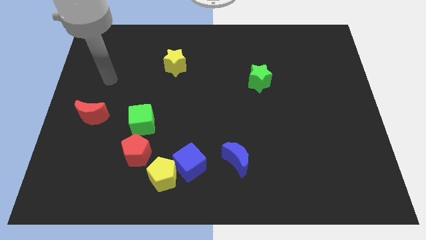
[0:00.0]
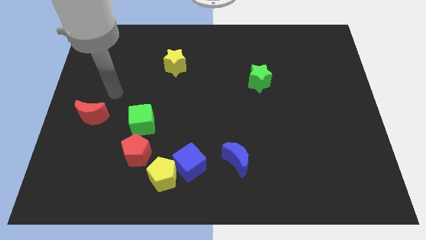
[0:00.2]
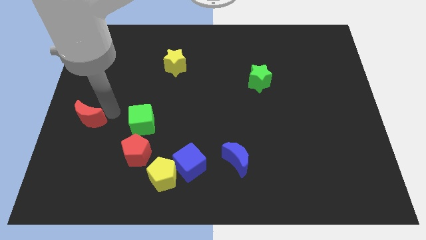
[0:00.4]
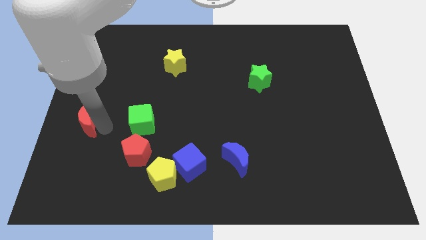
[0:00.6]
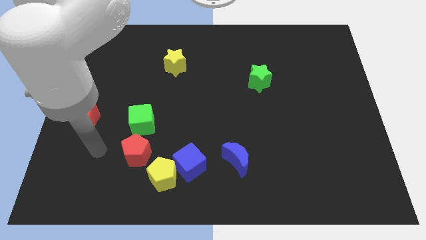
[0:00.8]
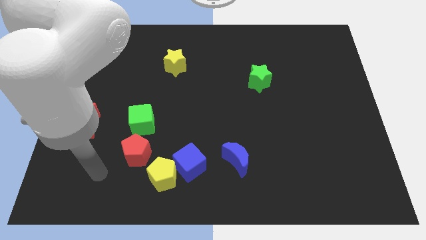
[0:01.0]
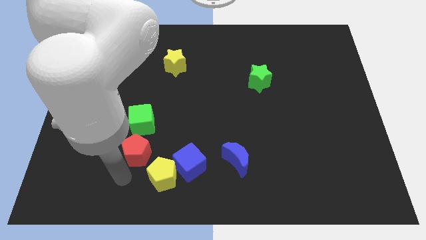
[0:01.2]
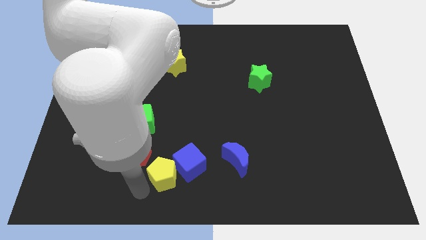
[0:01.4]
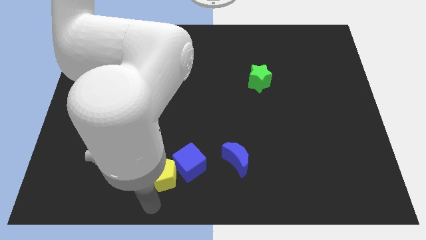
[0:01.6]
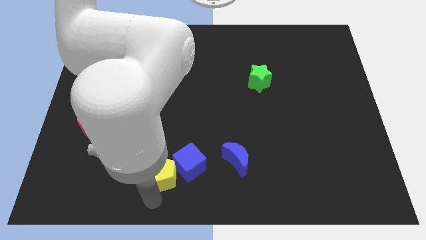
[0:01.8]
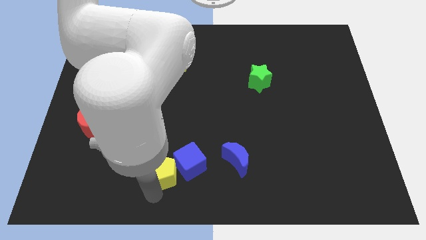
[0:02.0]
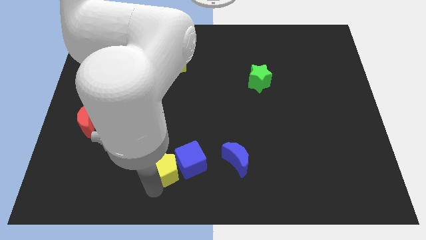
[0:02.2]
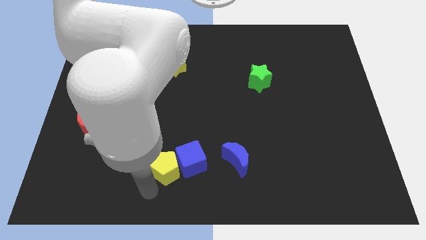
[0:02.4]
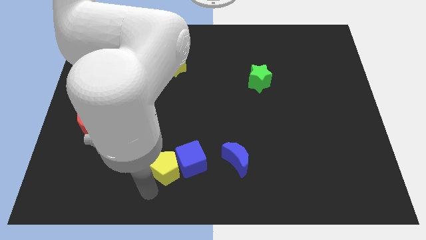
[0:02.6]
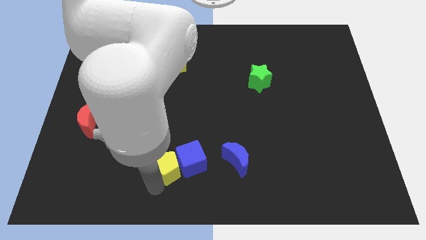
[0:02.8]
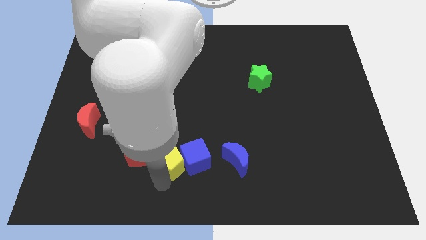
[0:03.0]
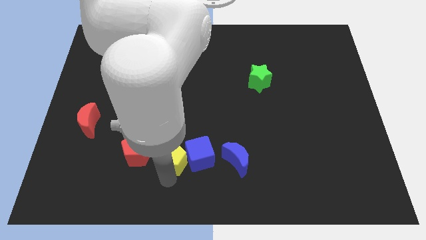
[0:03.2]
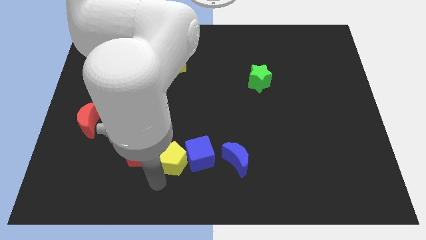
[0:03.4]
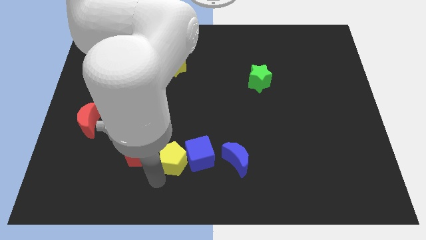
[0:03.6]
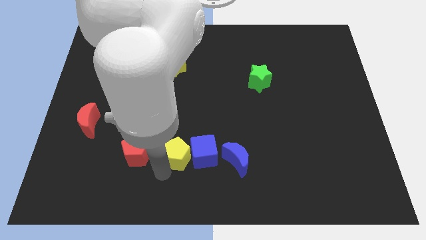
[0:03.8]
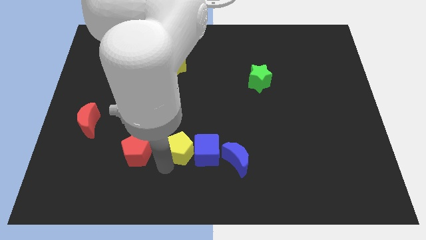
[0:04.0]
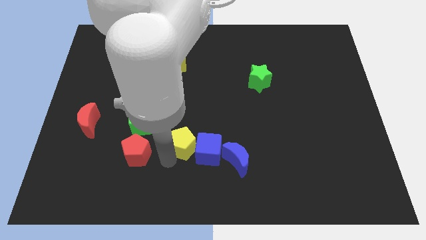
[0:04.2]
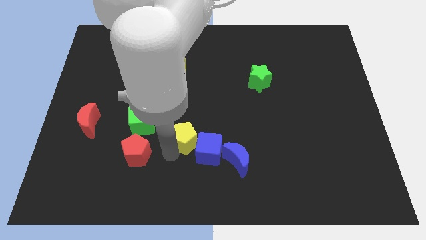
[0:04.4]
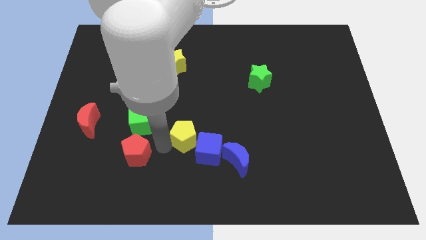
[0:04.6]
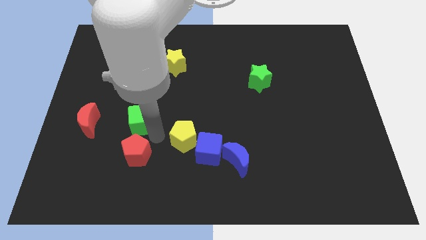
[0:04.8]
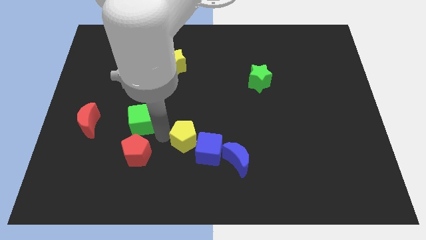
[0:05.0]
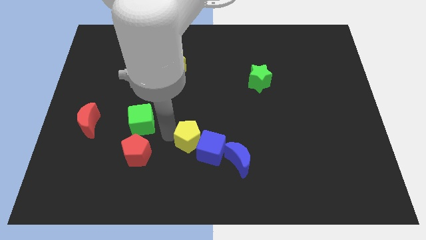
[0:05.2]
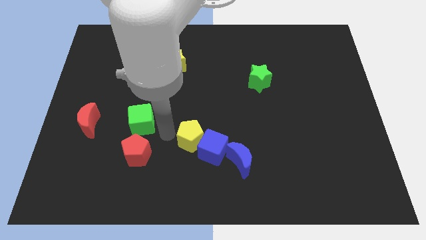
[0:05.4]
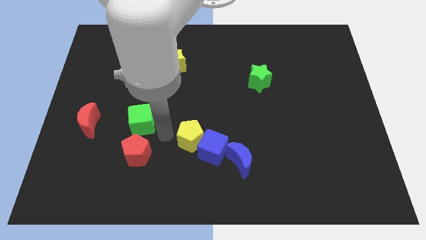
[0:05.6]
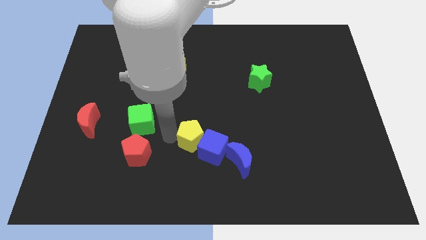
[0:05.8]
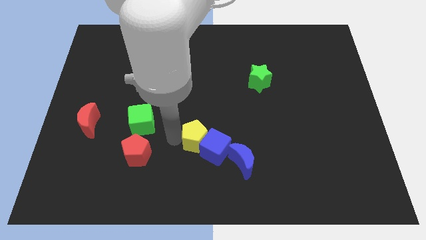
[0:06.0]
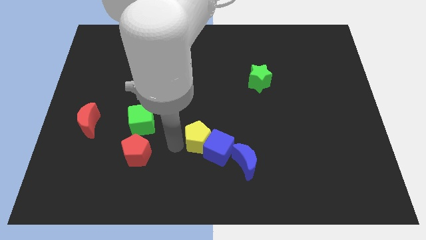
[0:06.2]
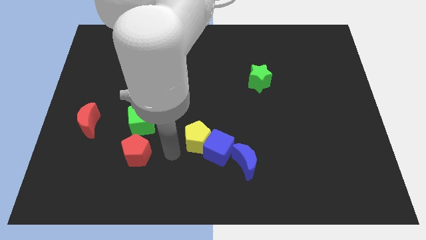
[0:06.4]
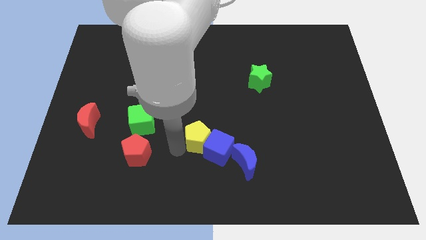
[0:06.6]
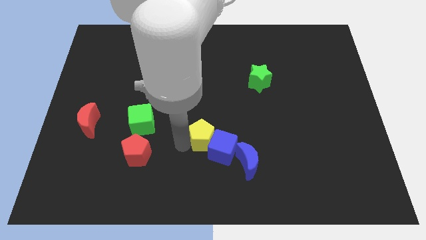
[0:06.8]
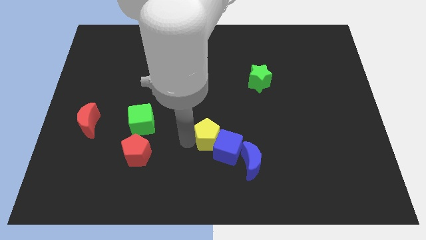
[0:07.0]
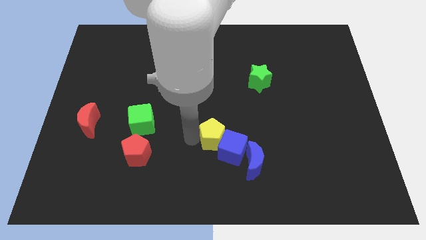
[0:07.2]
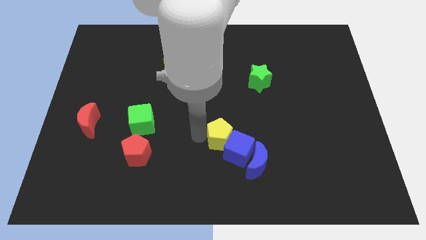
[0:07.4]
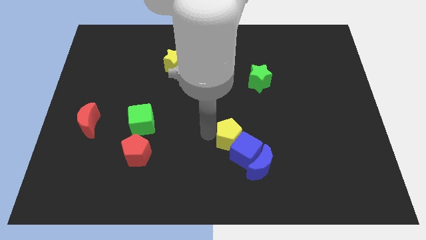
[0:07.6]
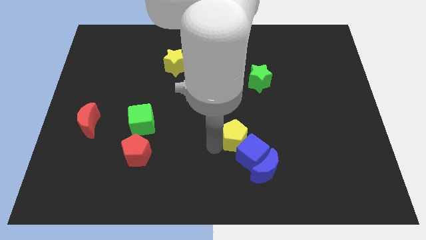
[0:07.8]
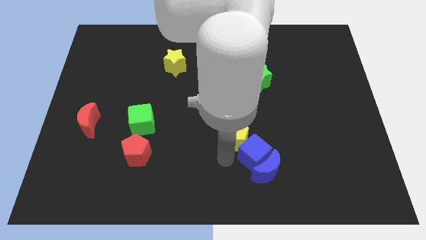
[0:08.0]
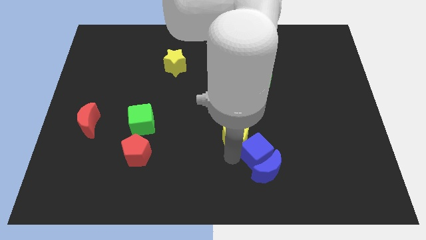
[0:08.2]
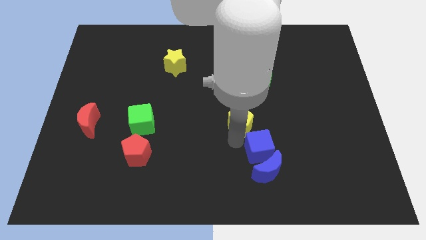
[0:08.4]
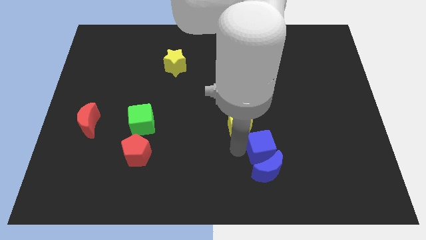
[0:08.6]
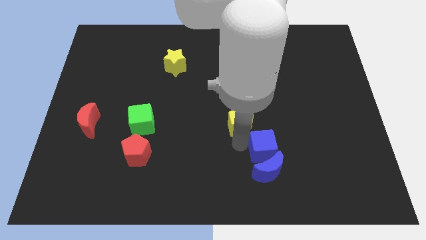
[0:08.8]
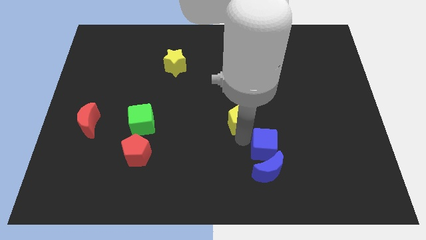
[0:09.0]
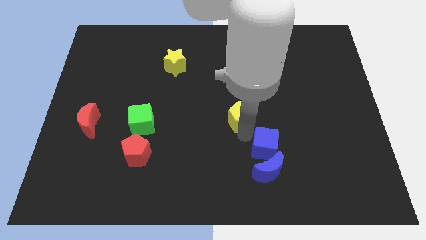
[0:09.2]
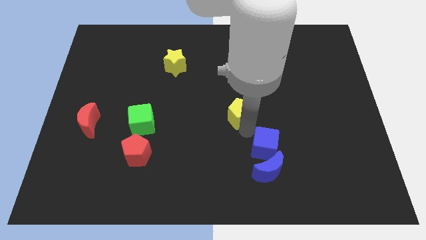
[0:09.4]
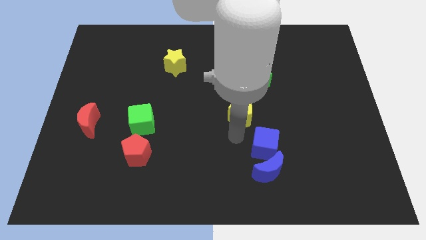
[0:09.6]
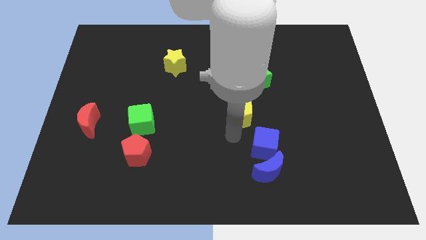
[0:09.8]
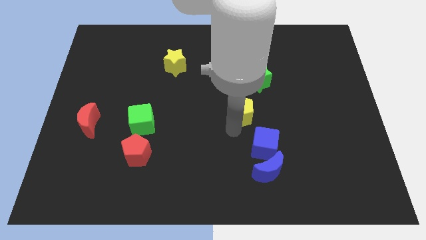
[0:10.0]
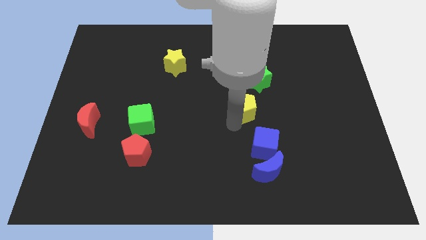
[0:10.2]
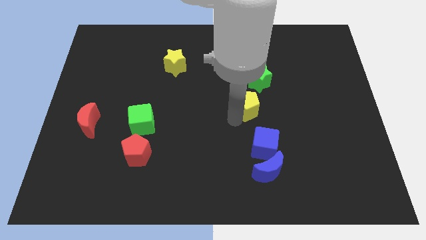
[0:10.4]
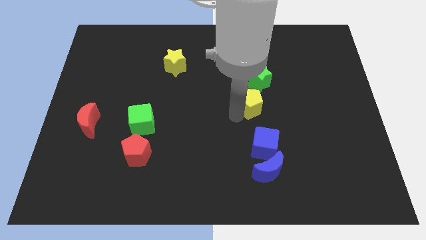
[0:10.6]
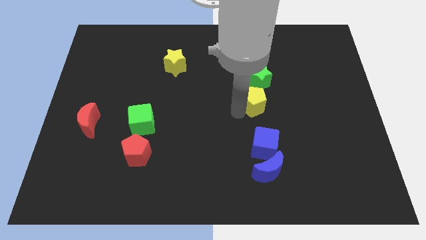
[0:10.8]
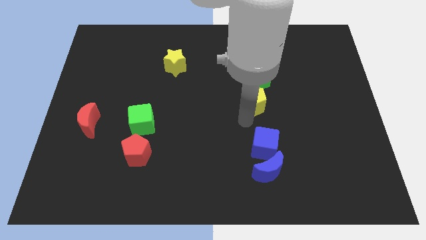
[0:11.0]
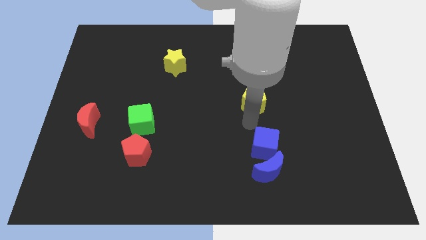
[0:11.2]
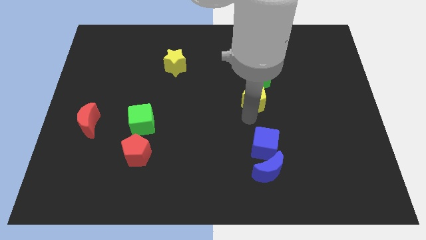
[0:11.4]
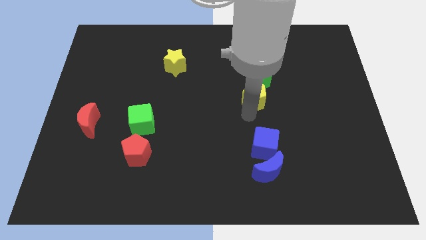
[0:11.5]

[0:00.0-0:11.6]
slide the yellow pentagon close to the green star

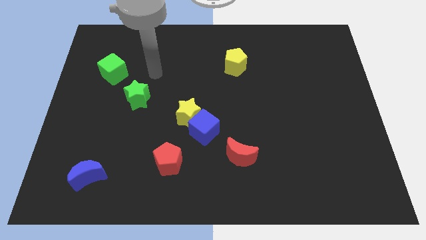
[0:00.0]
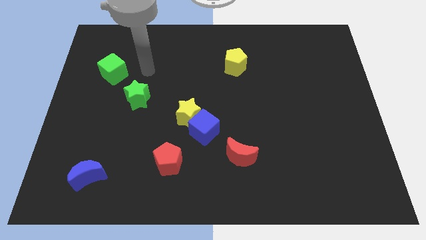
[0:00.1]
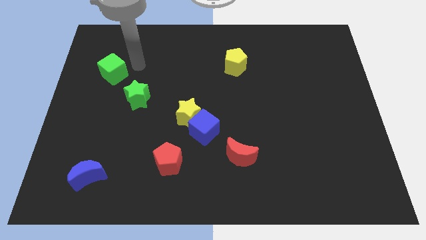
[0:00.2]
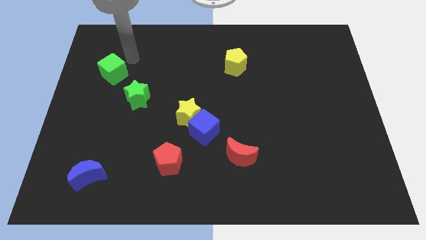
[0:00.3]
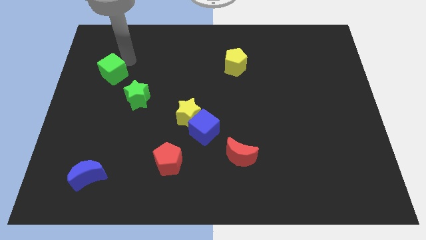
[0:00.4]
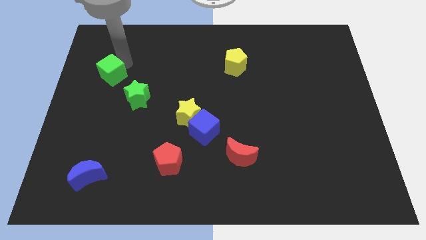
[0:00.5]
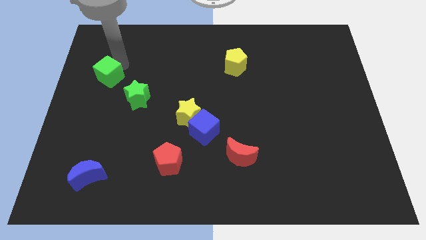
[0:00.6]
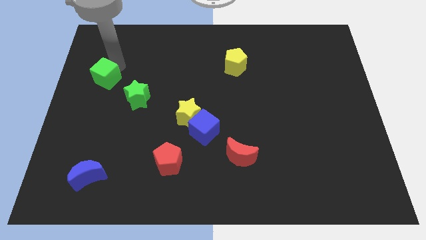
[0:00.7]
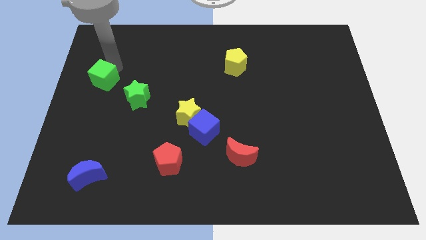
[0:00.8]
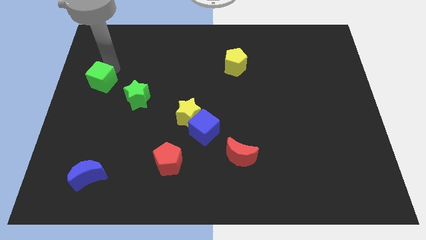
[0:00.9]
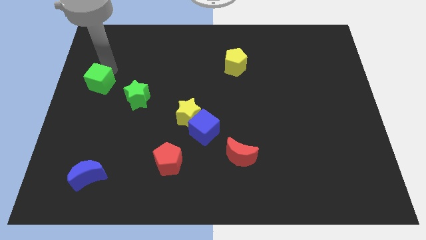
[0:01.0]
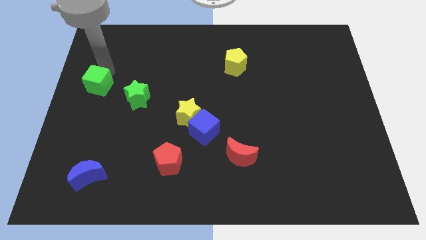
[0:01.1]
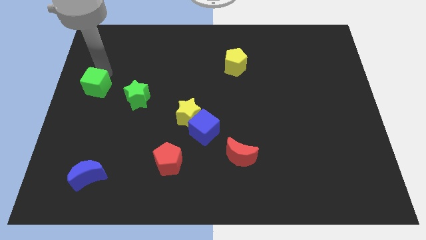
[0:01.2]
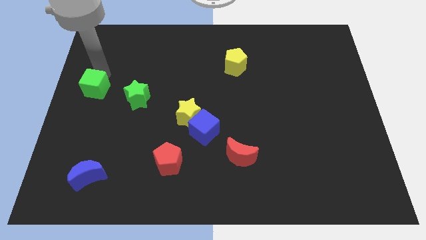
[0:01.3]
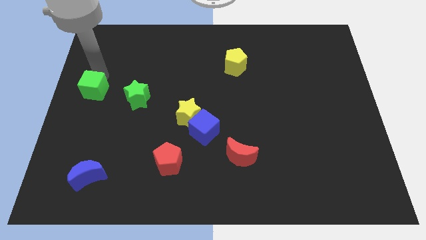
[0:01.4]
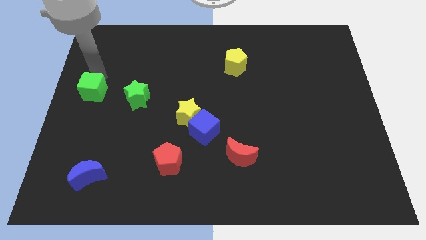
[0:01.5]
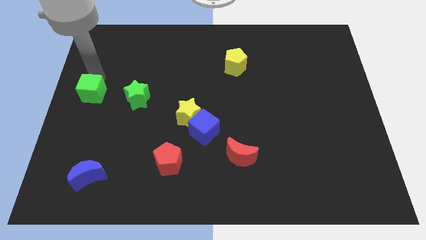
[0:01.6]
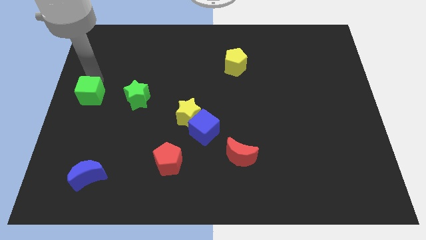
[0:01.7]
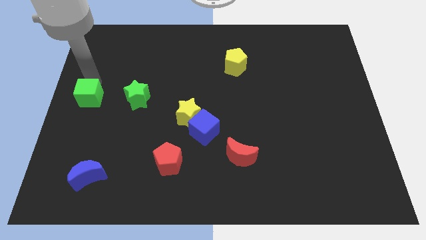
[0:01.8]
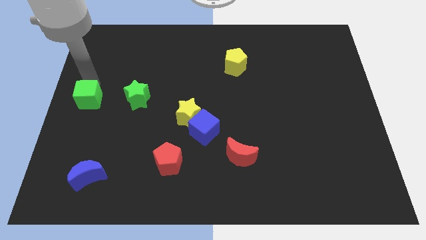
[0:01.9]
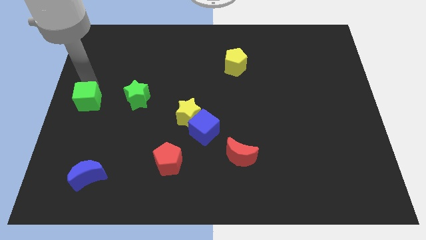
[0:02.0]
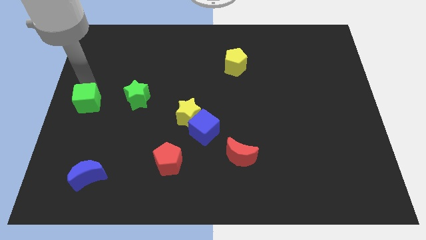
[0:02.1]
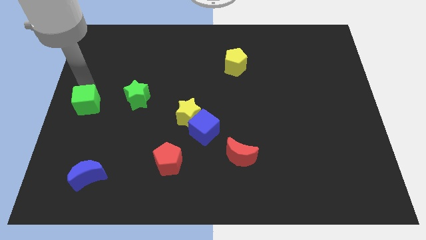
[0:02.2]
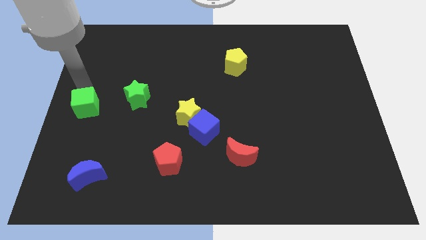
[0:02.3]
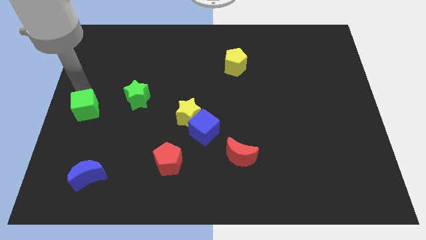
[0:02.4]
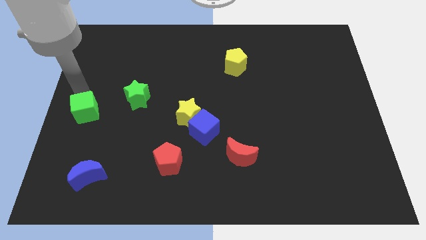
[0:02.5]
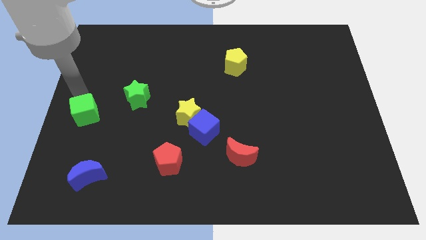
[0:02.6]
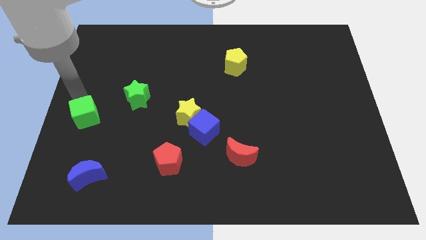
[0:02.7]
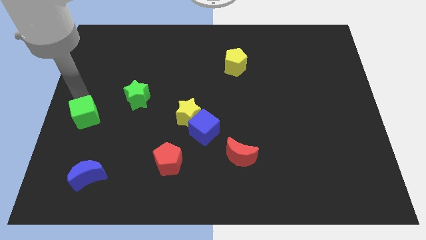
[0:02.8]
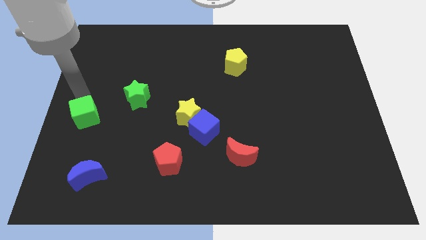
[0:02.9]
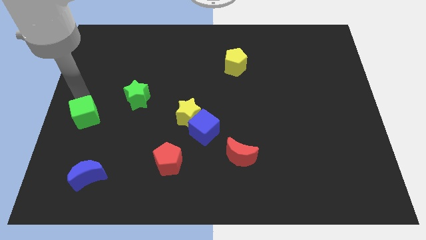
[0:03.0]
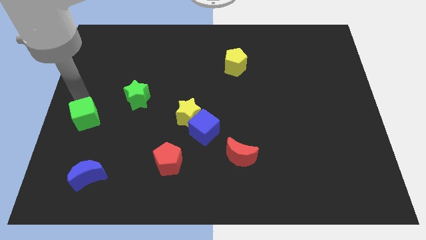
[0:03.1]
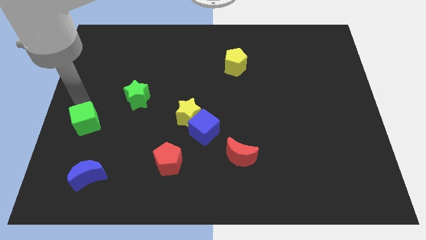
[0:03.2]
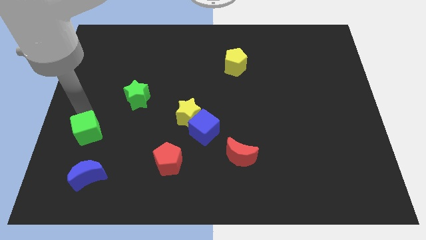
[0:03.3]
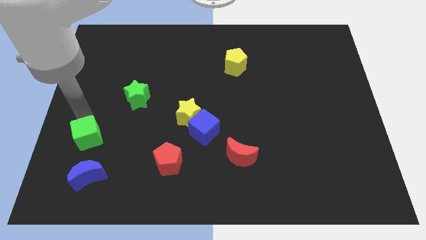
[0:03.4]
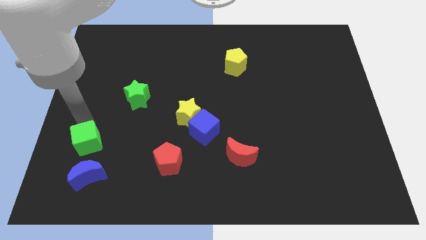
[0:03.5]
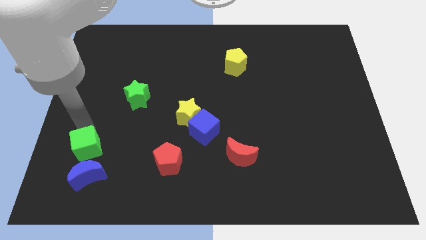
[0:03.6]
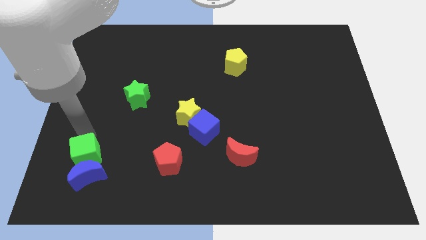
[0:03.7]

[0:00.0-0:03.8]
move the green cube close to the blue moon
